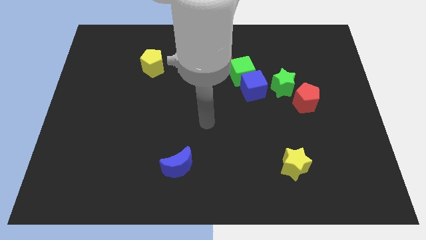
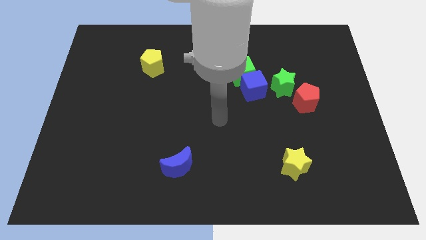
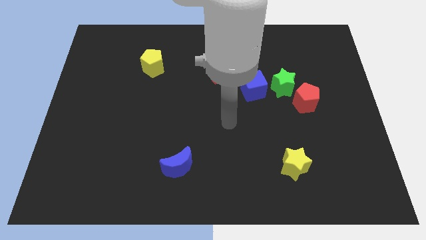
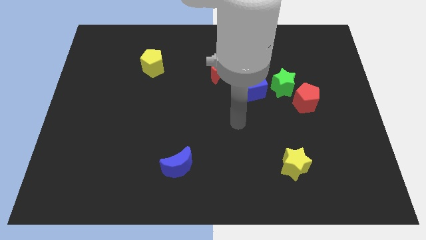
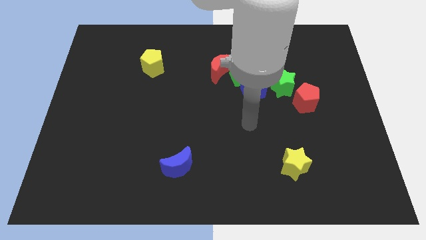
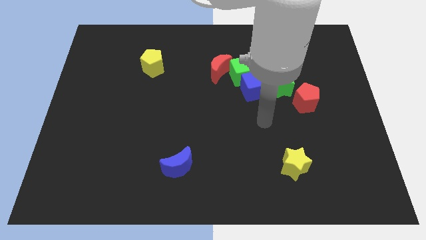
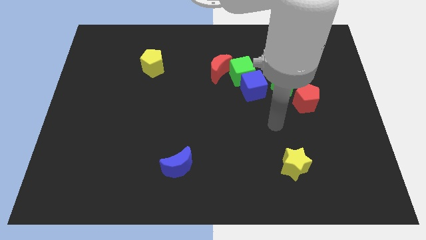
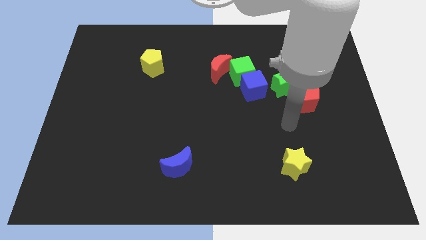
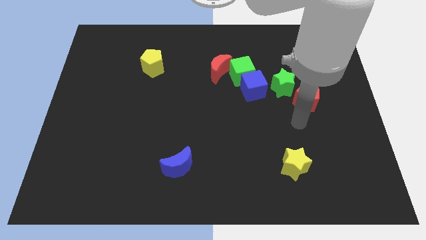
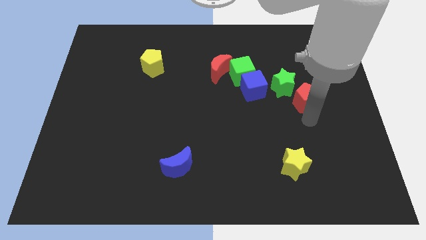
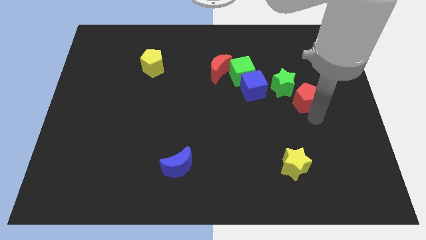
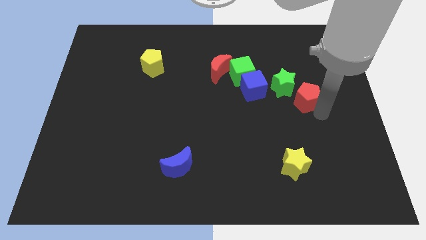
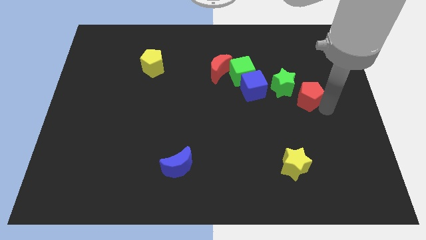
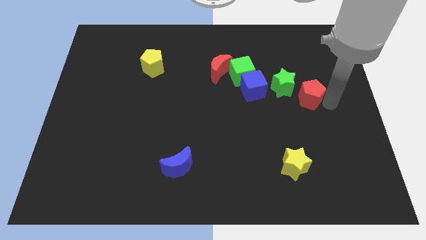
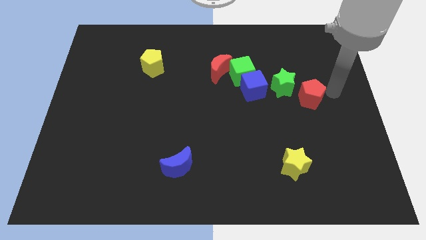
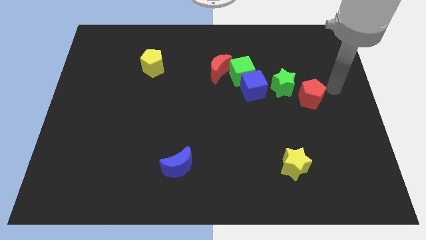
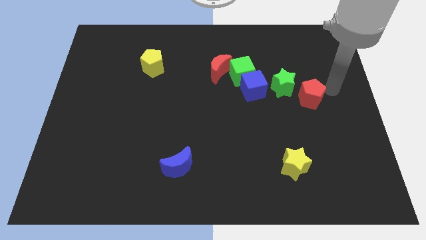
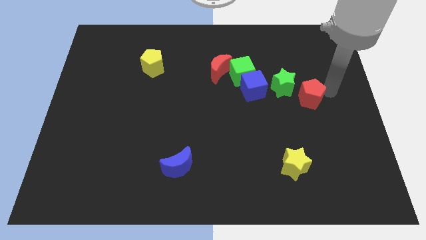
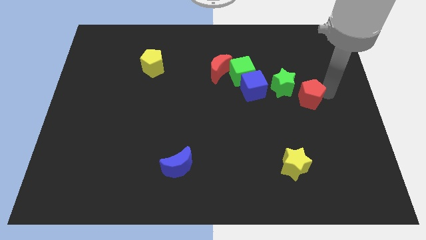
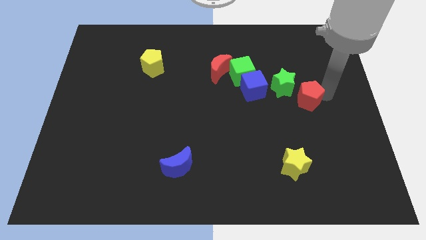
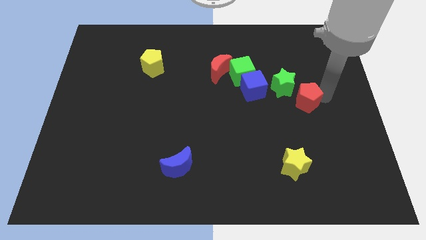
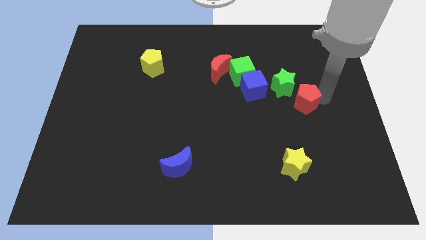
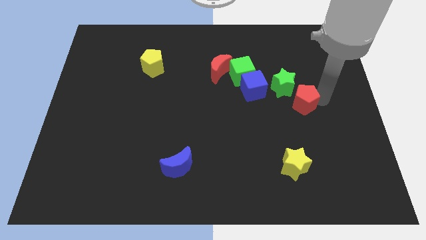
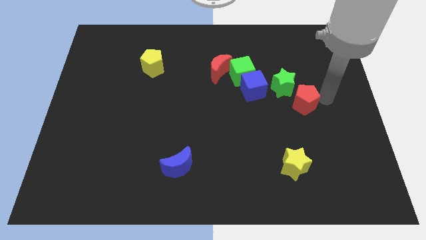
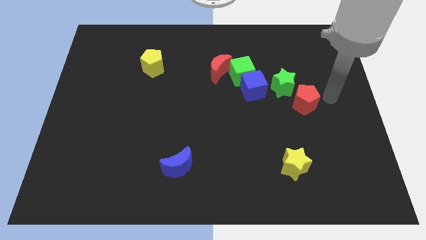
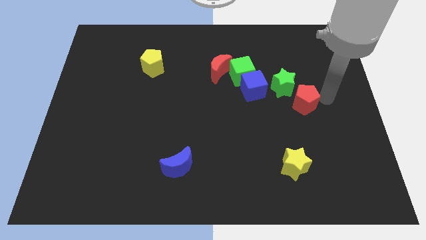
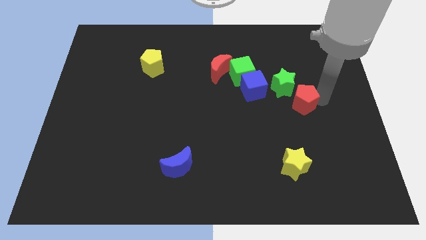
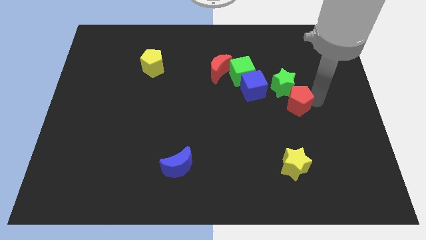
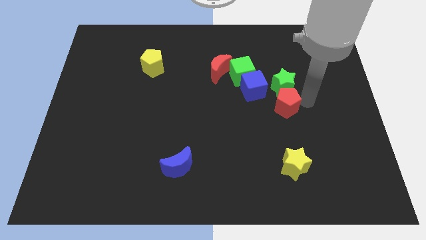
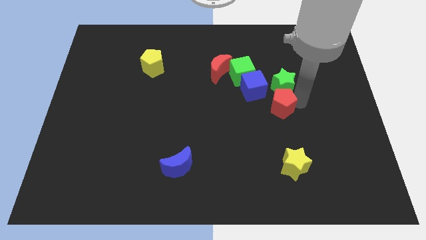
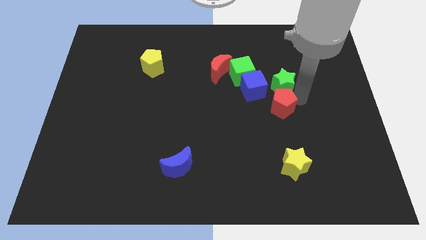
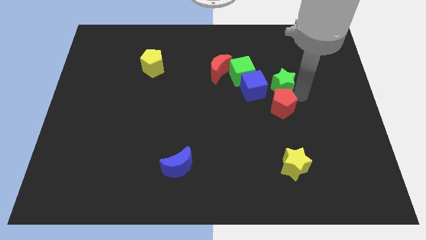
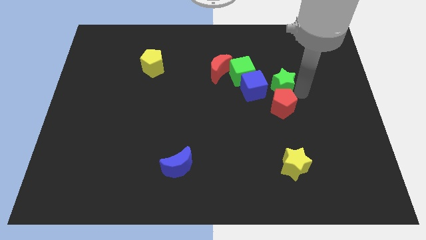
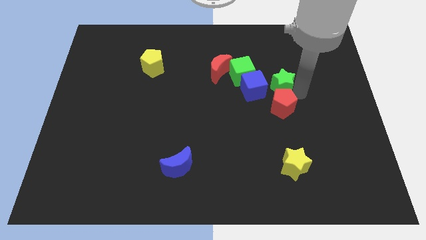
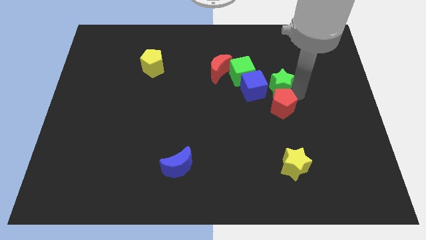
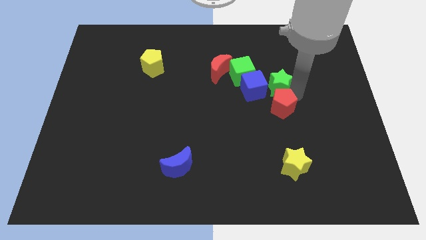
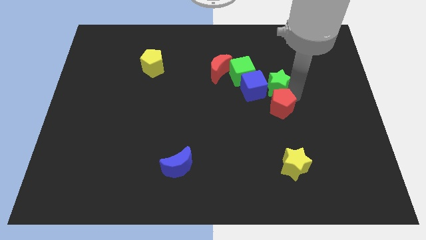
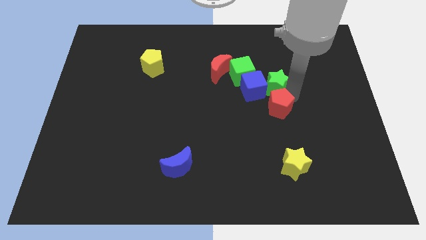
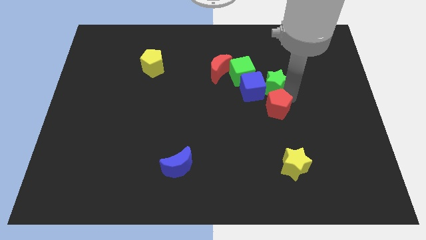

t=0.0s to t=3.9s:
push the red pentagon a bit left

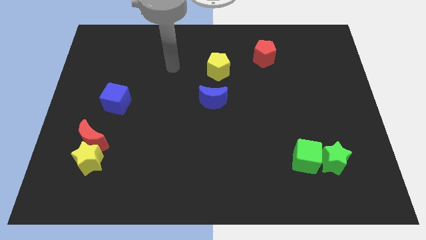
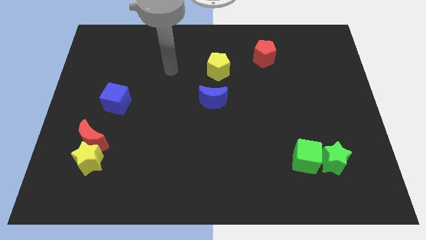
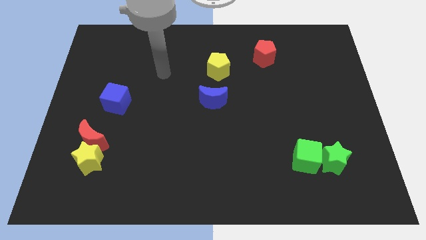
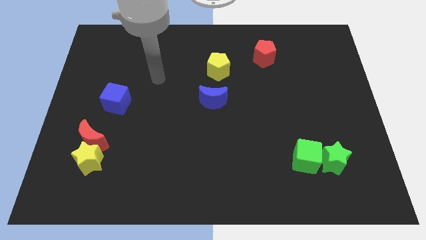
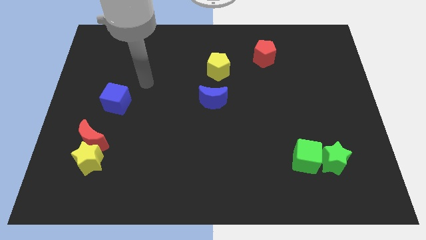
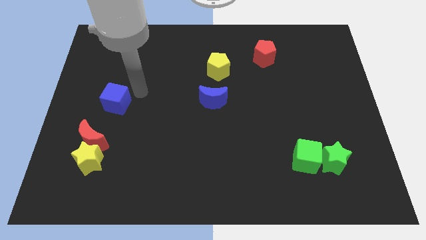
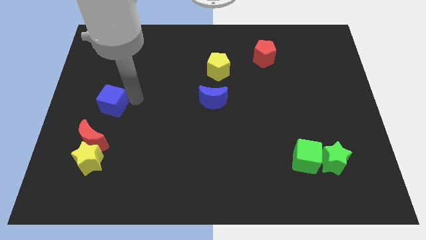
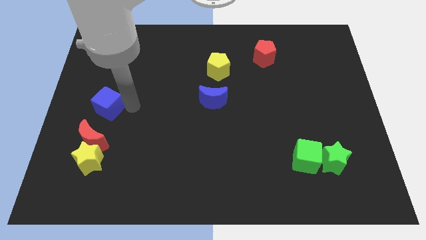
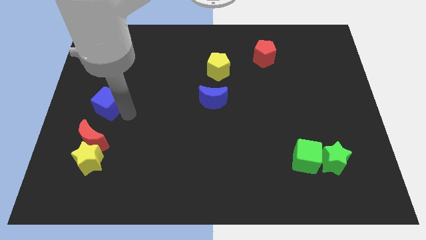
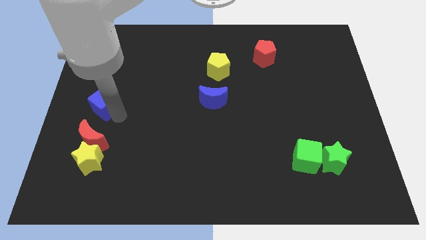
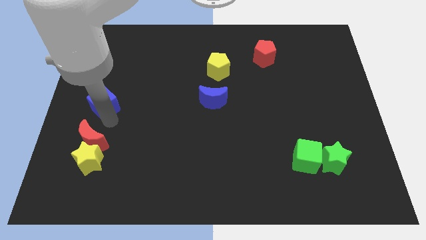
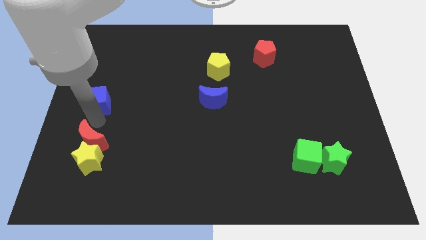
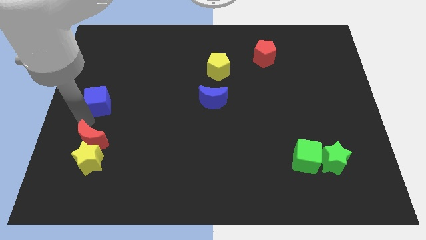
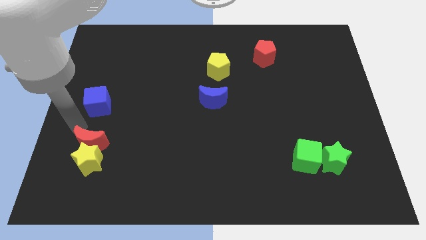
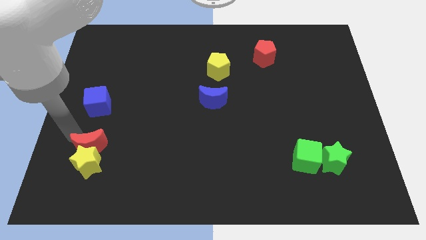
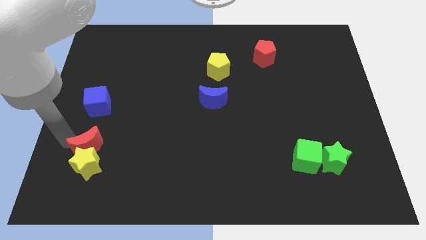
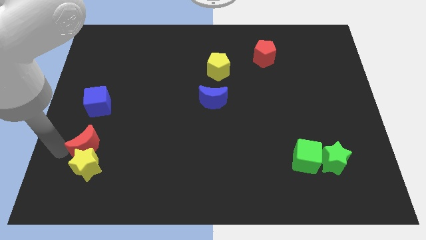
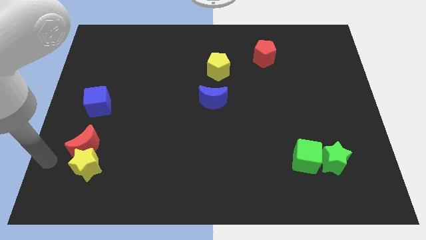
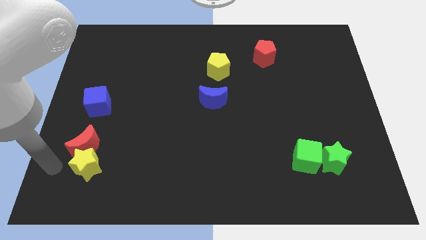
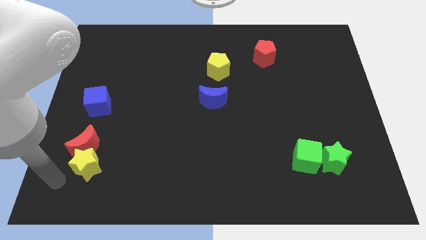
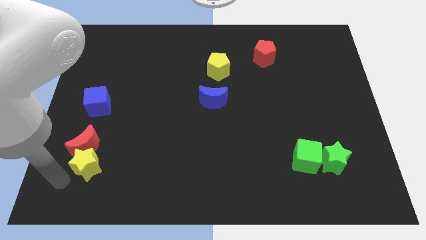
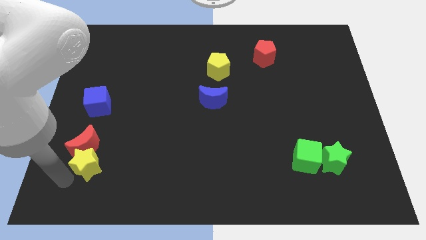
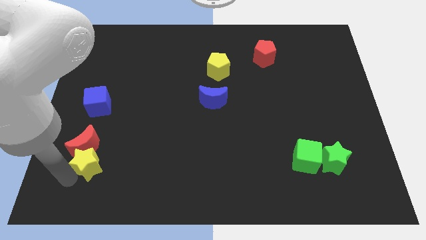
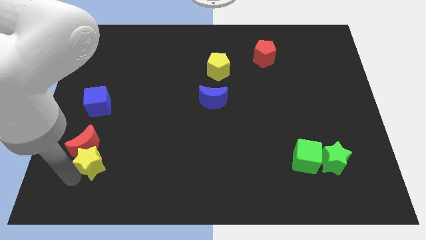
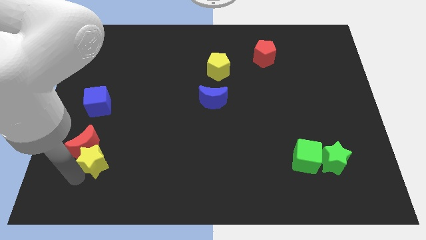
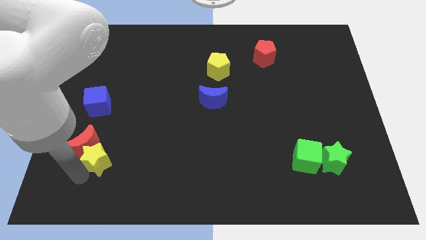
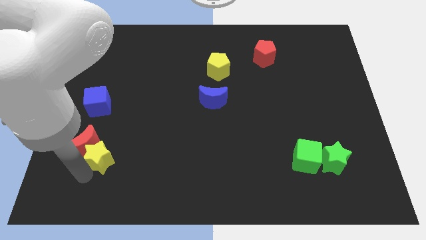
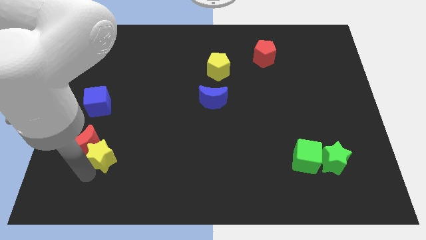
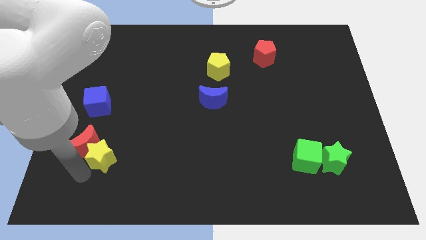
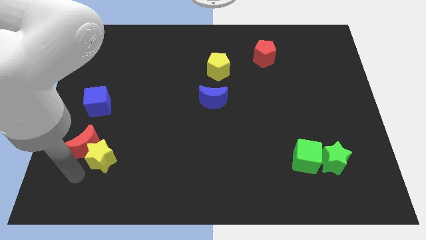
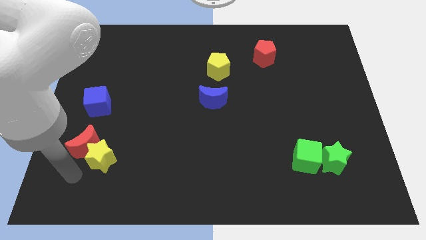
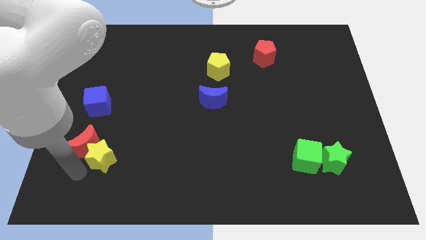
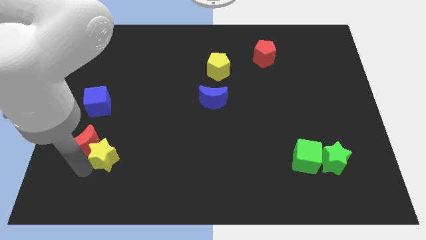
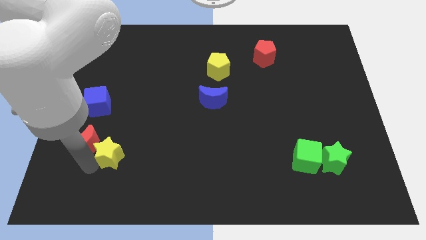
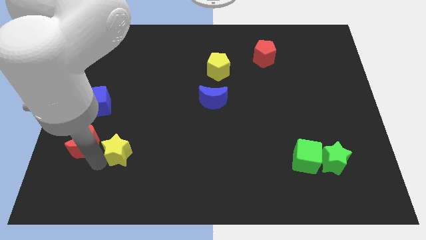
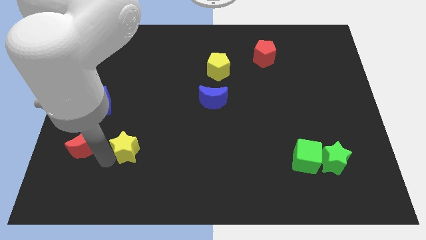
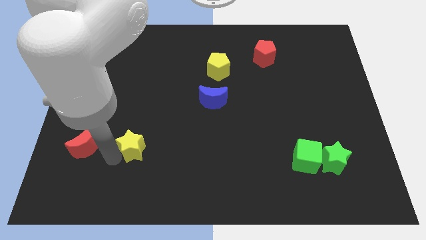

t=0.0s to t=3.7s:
slightly push the yellow star up and then to the right

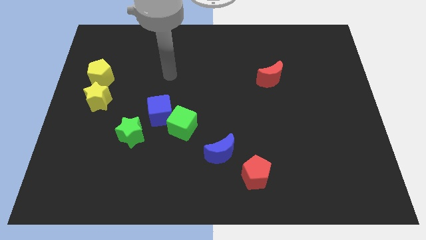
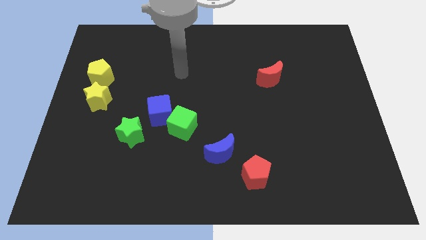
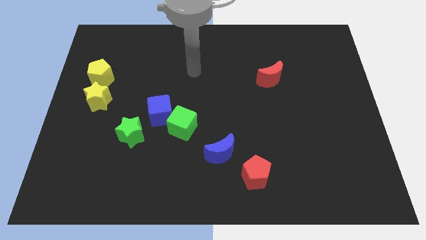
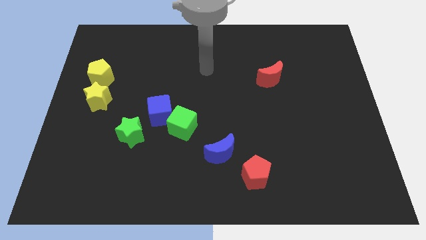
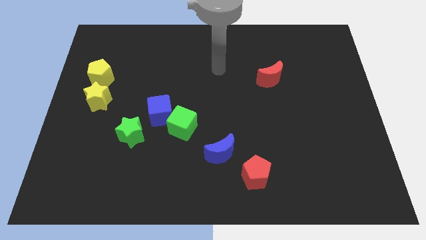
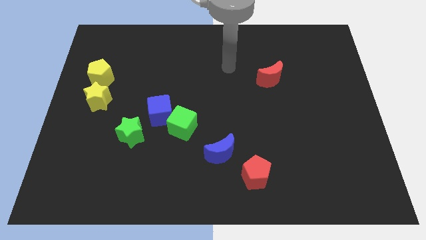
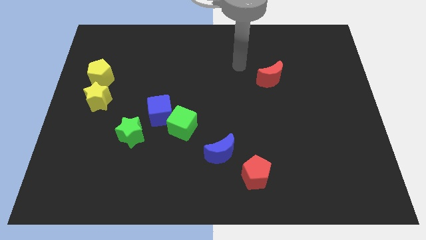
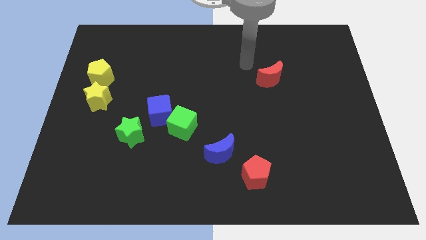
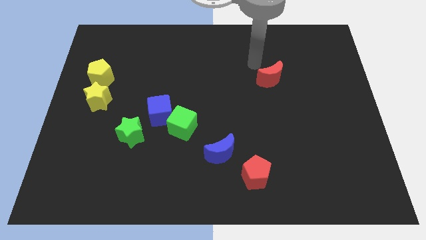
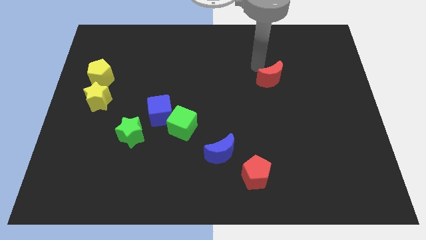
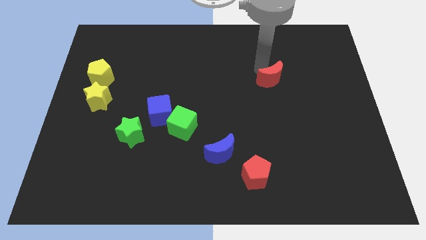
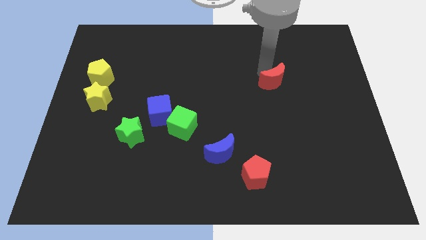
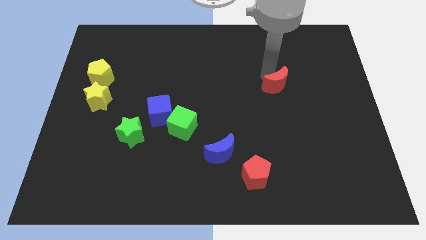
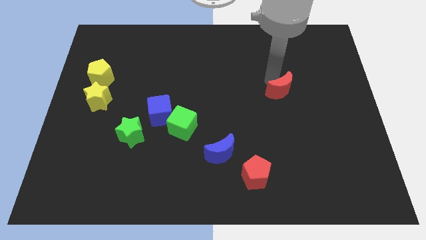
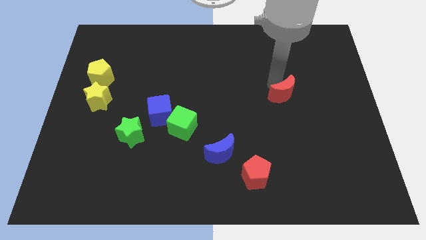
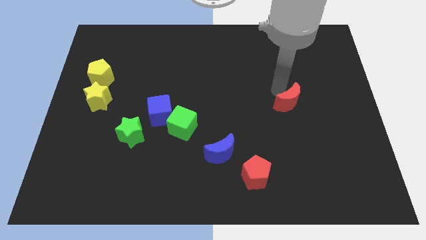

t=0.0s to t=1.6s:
push the red moon somewhat diagonally downwards and right
